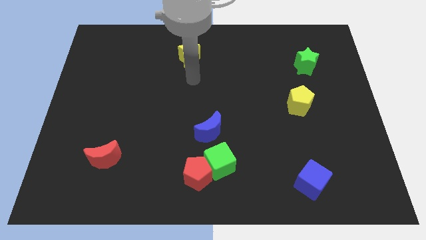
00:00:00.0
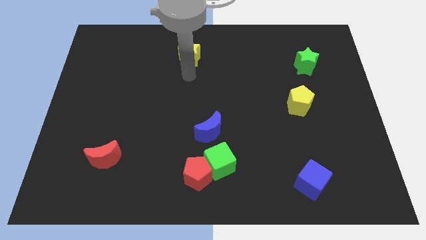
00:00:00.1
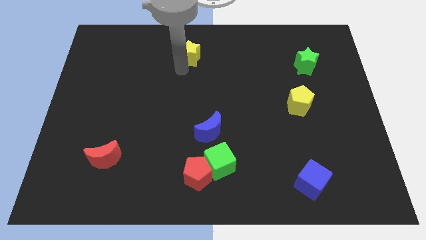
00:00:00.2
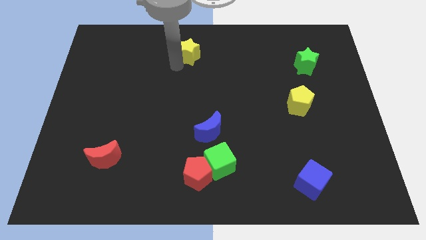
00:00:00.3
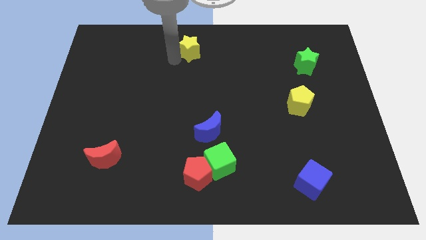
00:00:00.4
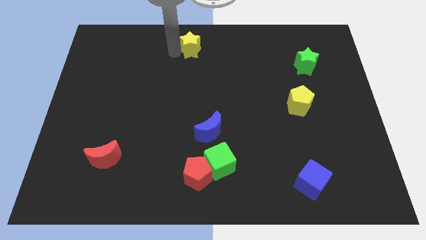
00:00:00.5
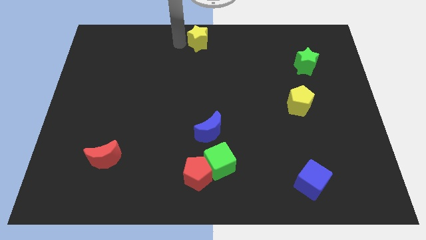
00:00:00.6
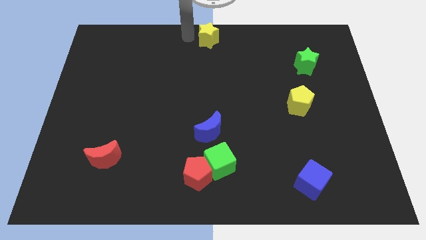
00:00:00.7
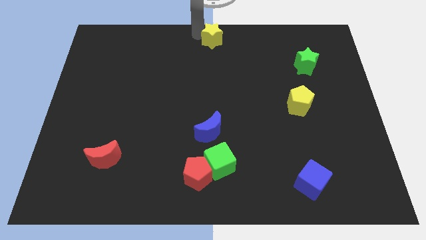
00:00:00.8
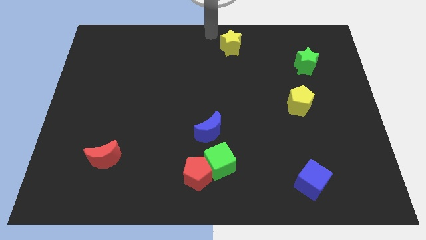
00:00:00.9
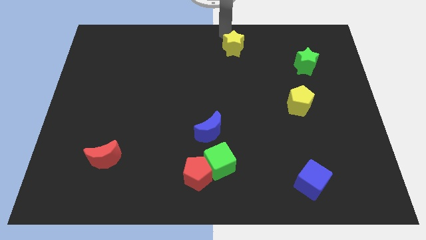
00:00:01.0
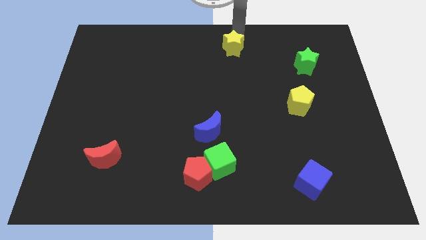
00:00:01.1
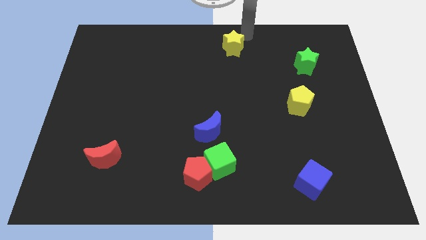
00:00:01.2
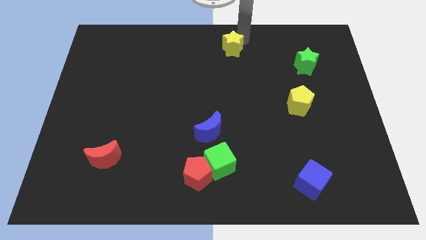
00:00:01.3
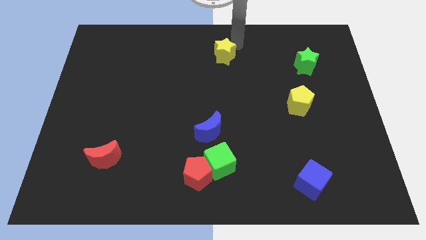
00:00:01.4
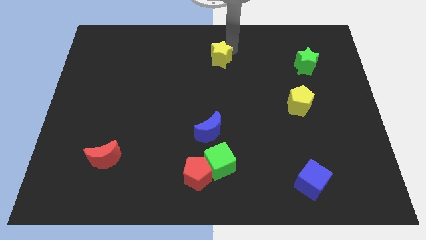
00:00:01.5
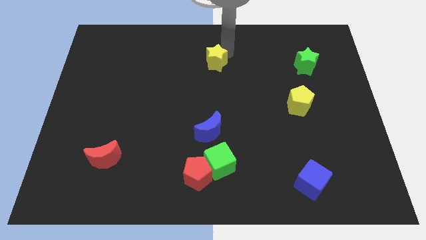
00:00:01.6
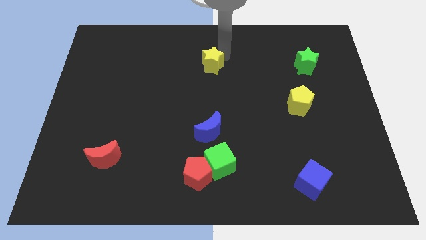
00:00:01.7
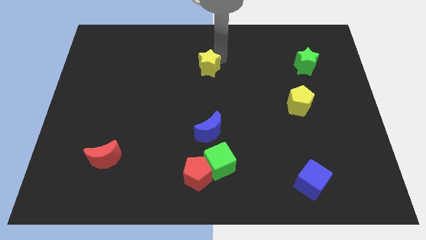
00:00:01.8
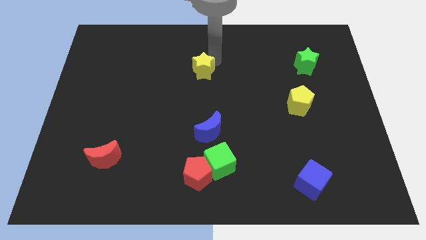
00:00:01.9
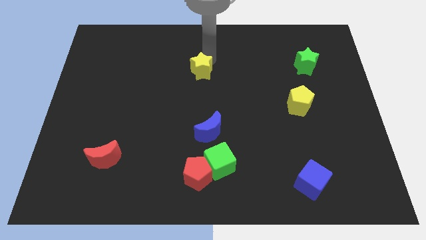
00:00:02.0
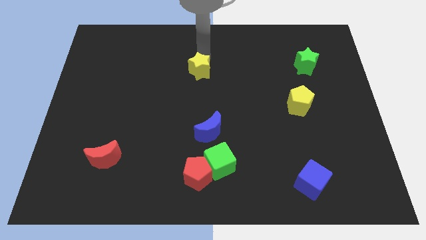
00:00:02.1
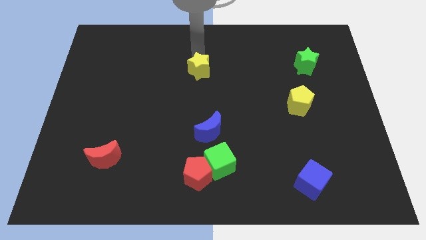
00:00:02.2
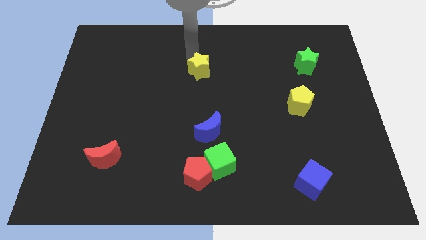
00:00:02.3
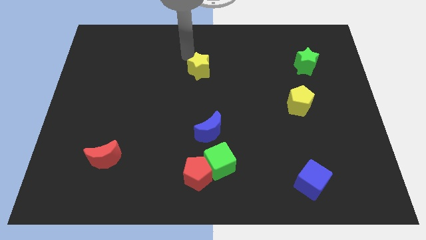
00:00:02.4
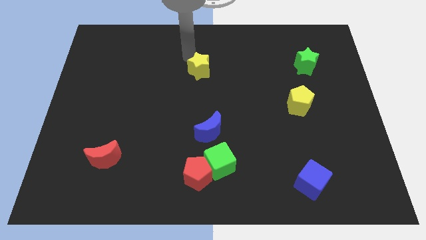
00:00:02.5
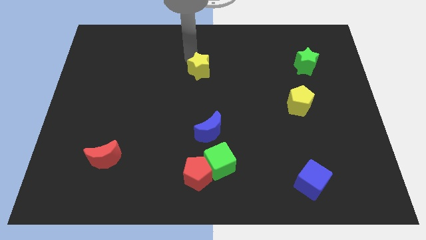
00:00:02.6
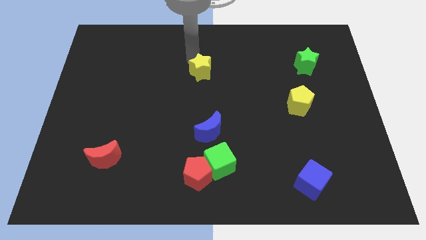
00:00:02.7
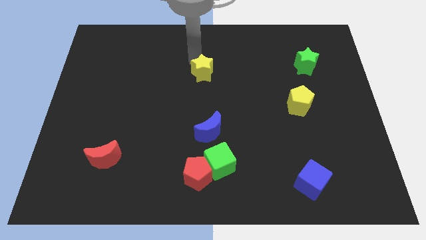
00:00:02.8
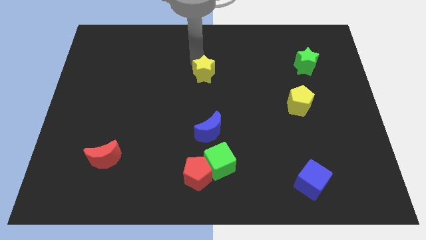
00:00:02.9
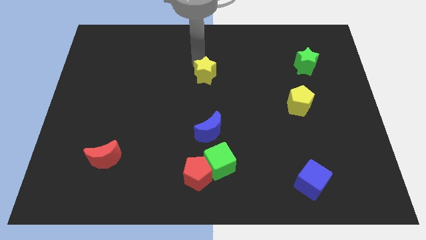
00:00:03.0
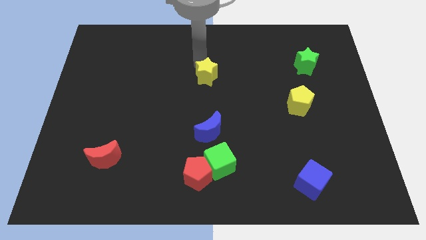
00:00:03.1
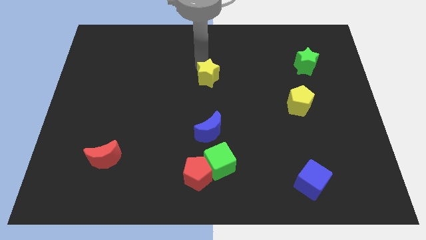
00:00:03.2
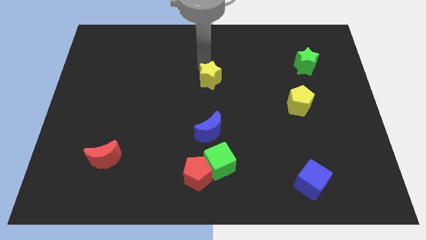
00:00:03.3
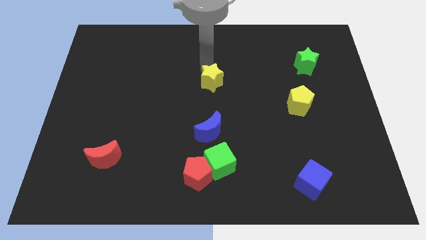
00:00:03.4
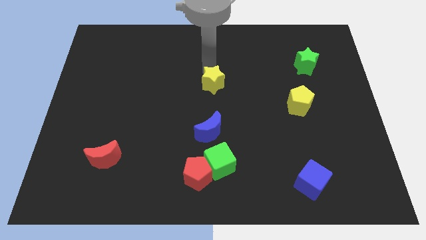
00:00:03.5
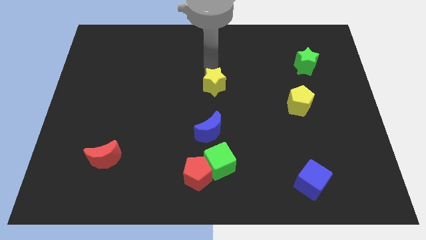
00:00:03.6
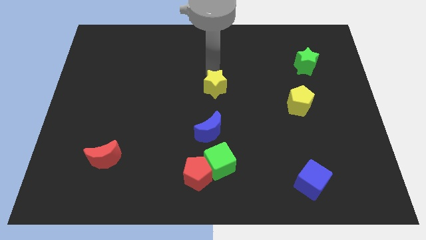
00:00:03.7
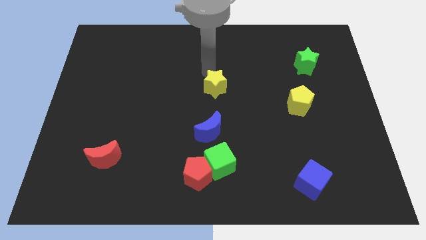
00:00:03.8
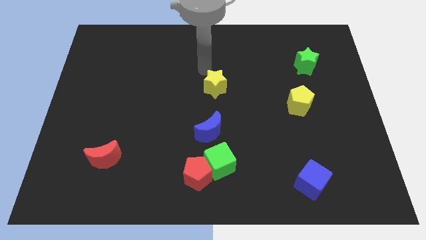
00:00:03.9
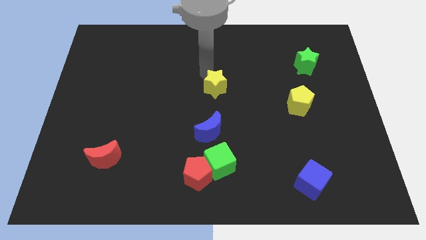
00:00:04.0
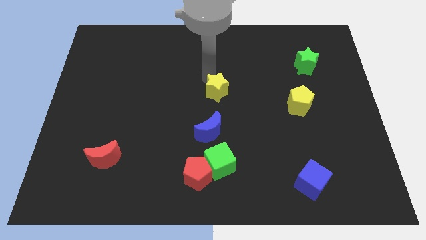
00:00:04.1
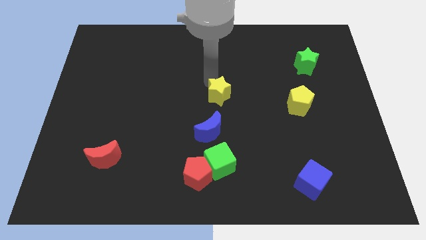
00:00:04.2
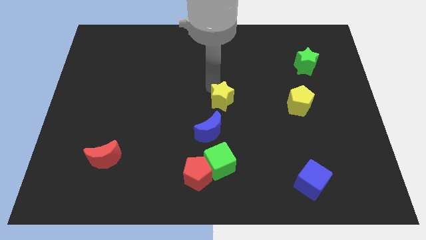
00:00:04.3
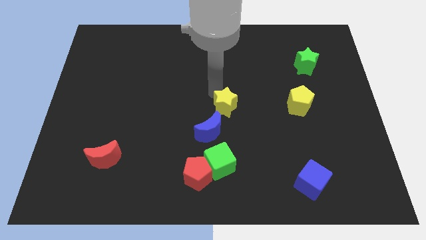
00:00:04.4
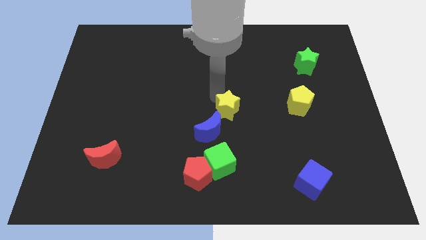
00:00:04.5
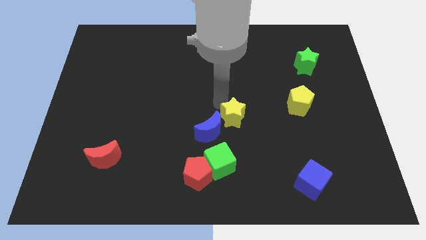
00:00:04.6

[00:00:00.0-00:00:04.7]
move the yellow star right of the blue moon

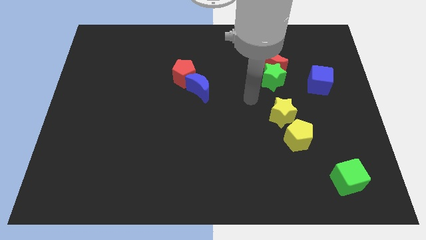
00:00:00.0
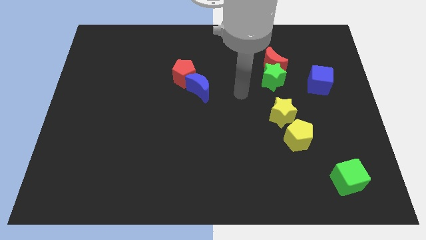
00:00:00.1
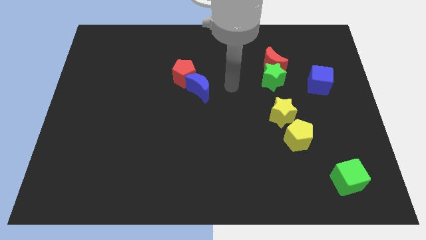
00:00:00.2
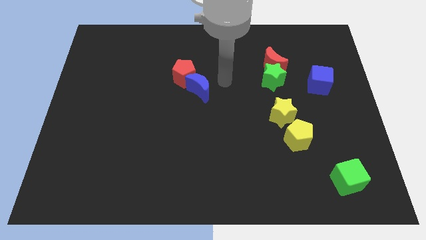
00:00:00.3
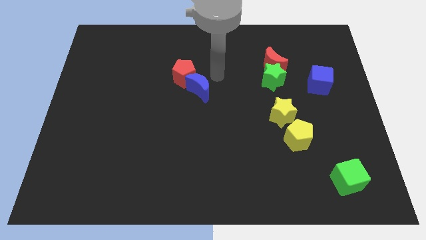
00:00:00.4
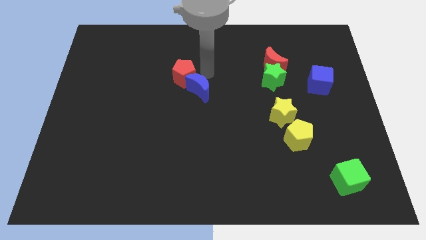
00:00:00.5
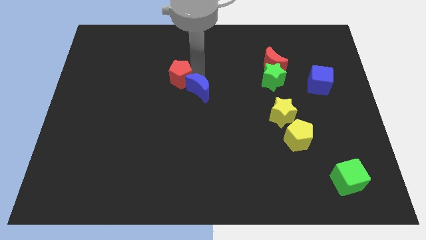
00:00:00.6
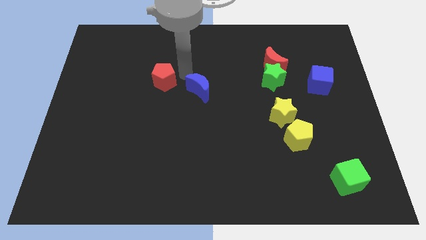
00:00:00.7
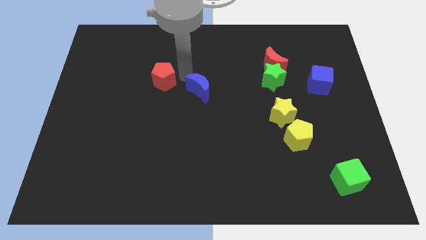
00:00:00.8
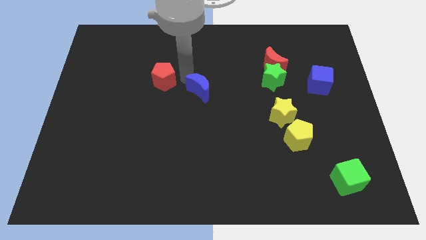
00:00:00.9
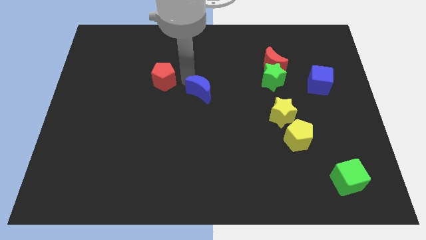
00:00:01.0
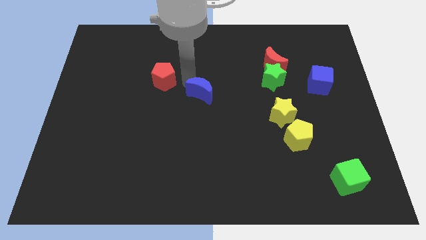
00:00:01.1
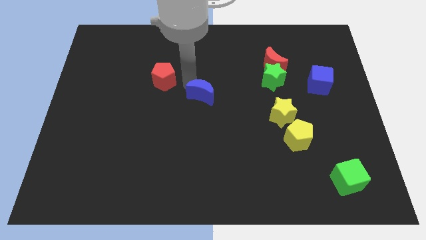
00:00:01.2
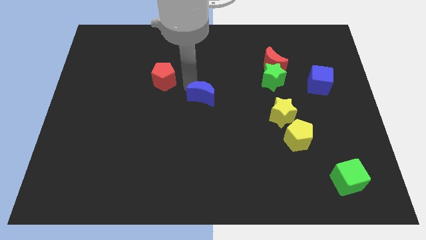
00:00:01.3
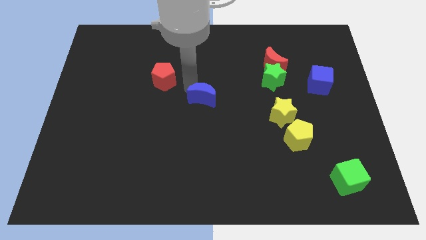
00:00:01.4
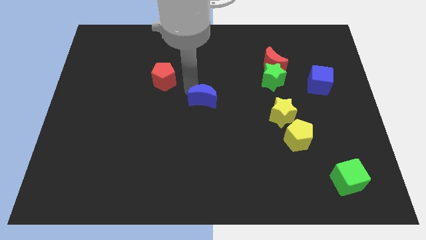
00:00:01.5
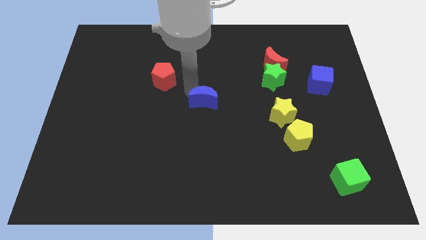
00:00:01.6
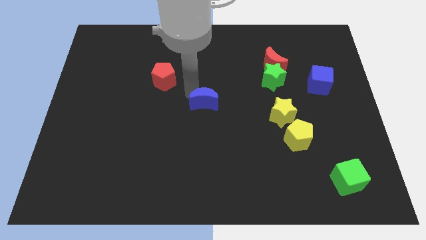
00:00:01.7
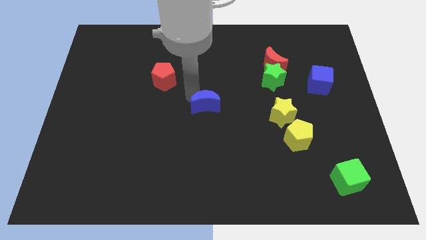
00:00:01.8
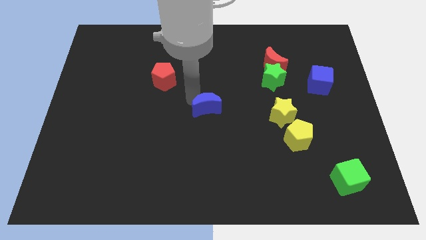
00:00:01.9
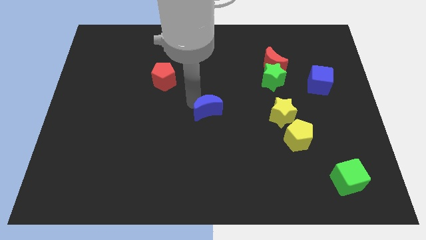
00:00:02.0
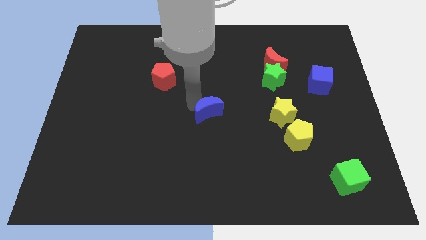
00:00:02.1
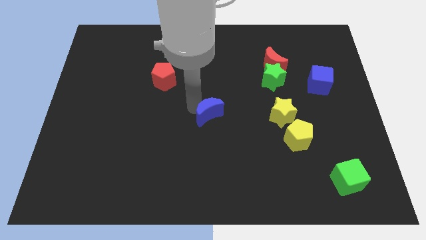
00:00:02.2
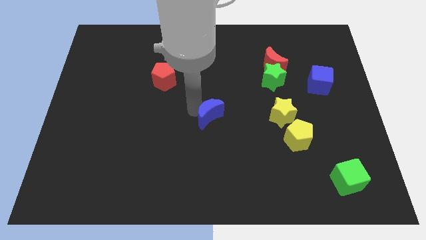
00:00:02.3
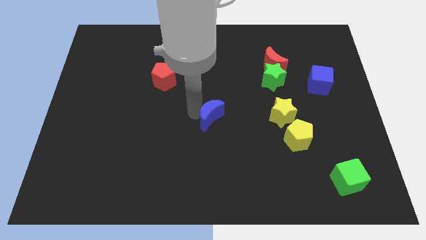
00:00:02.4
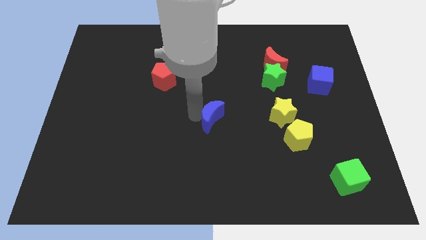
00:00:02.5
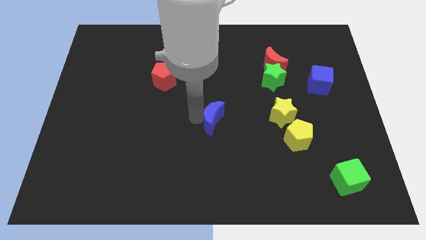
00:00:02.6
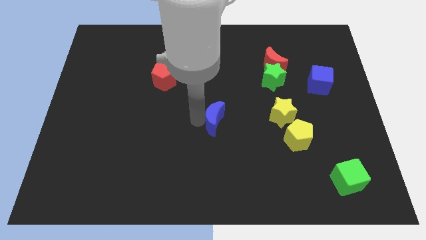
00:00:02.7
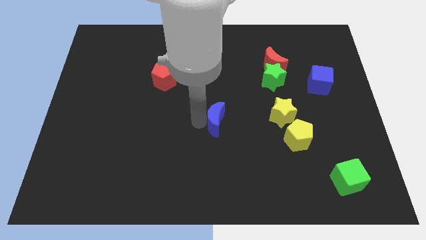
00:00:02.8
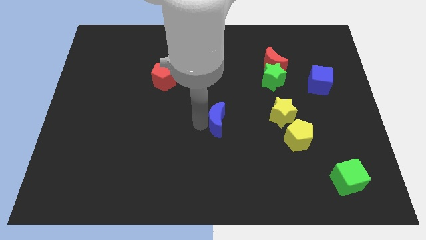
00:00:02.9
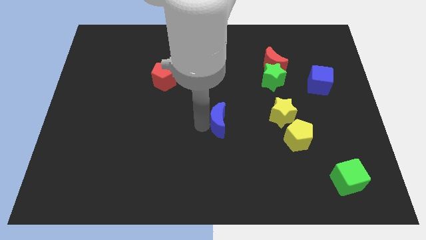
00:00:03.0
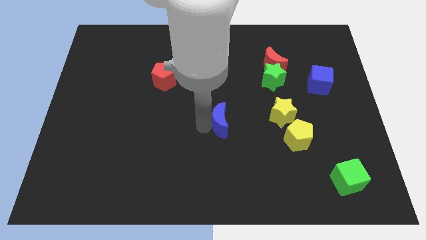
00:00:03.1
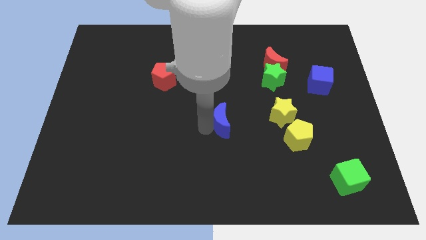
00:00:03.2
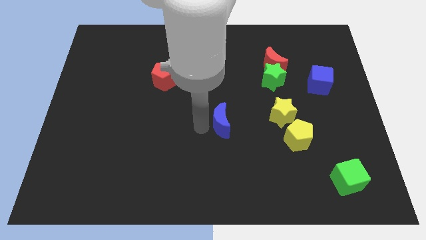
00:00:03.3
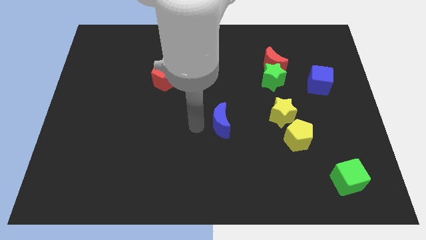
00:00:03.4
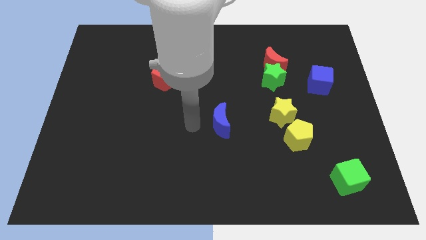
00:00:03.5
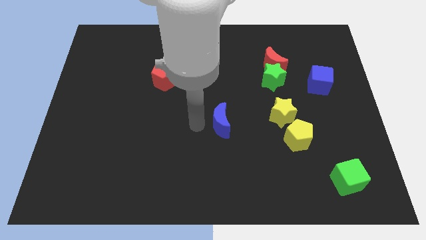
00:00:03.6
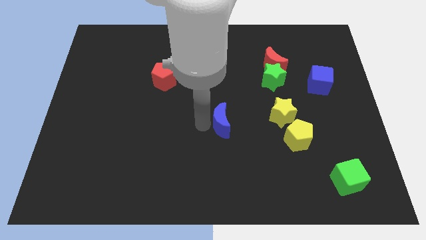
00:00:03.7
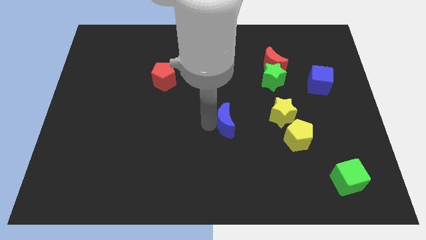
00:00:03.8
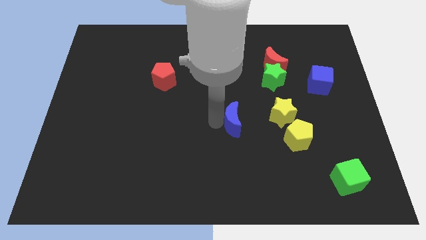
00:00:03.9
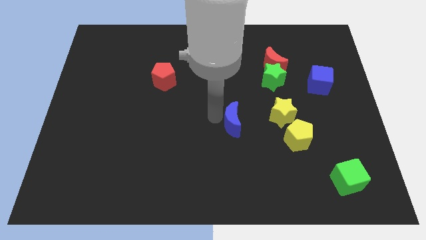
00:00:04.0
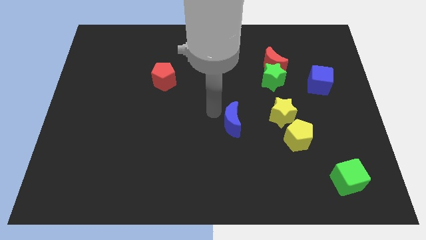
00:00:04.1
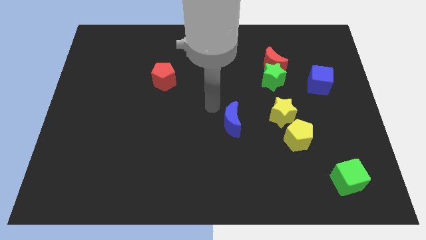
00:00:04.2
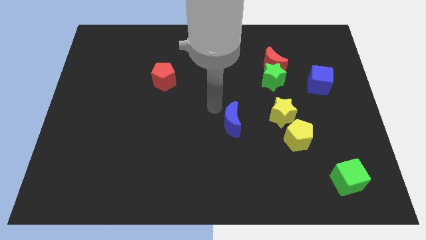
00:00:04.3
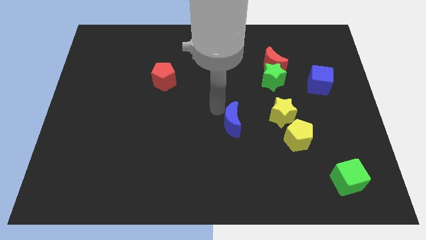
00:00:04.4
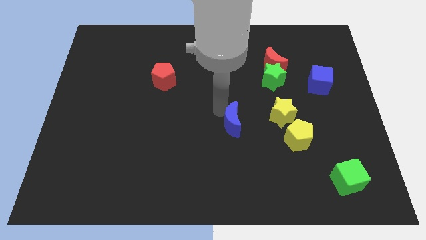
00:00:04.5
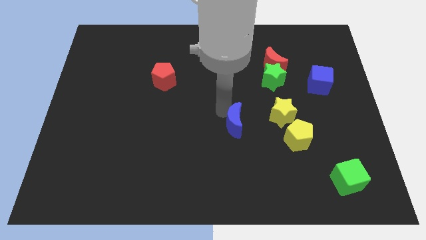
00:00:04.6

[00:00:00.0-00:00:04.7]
move the blue moon to the left of the yellow pentagon
